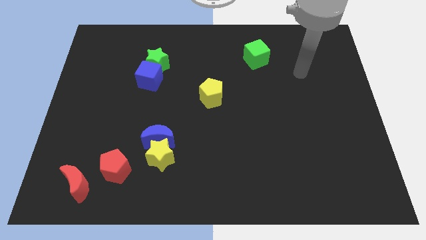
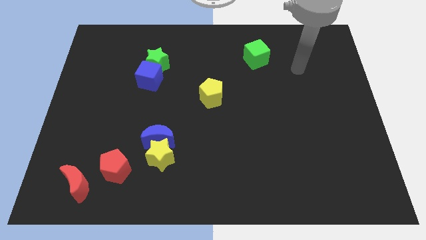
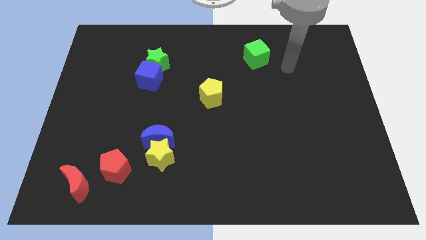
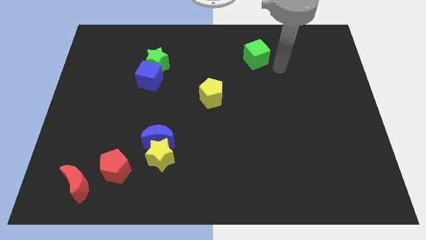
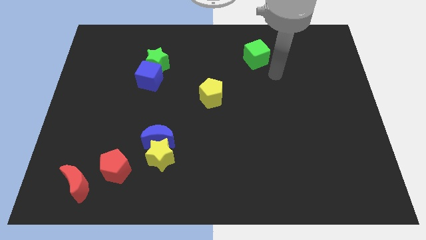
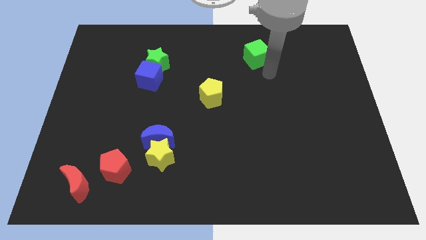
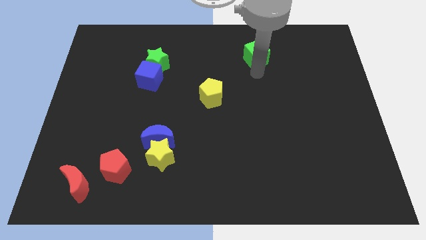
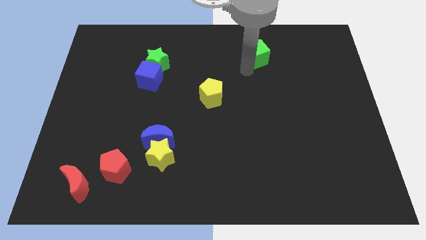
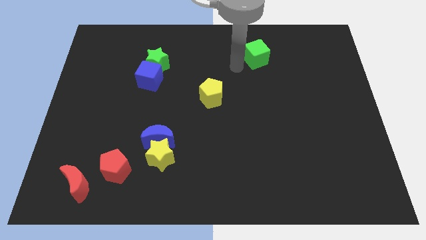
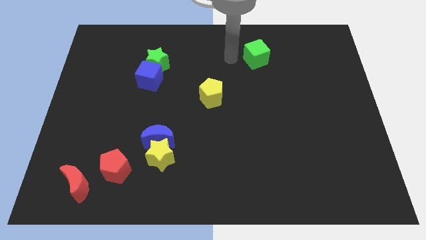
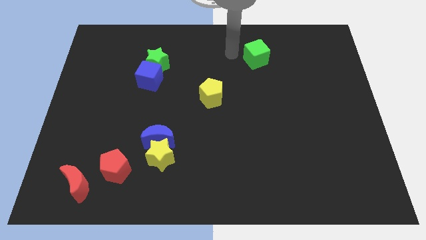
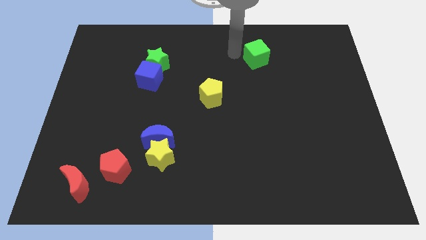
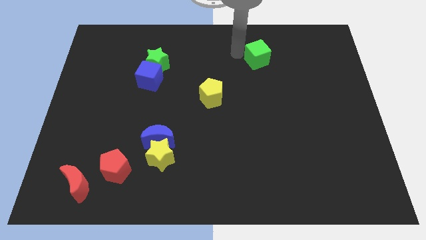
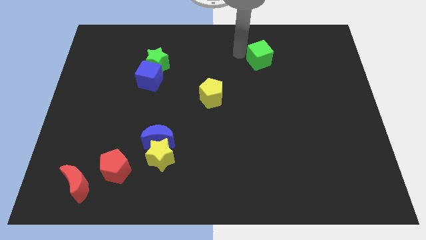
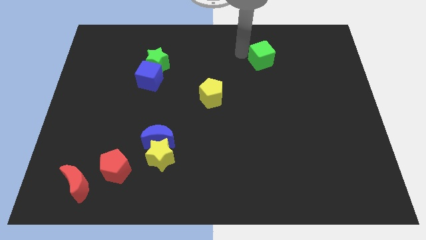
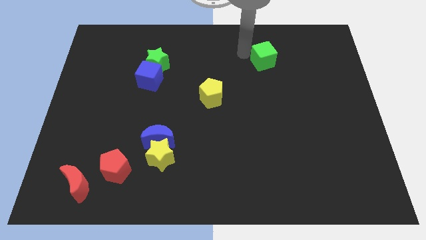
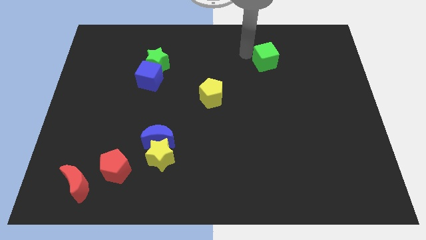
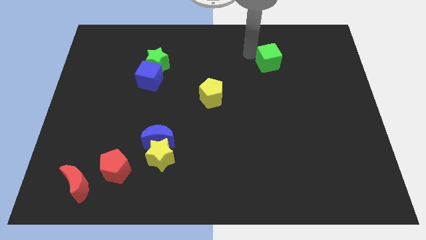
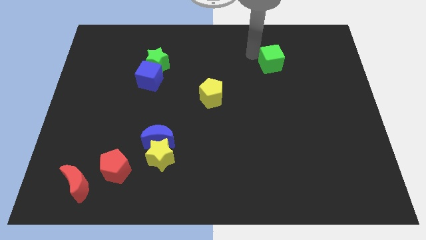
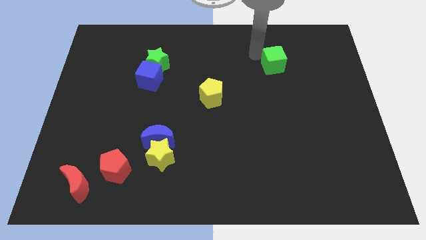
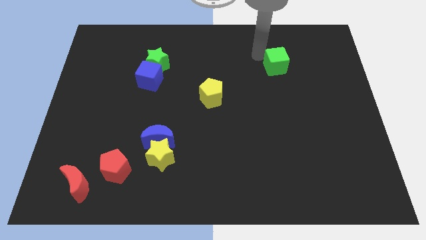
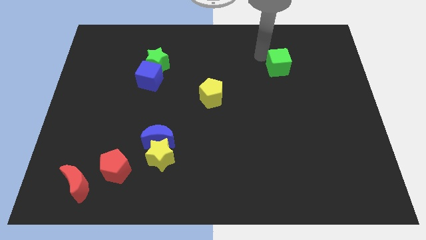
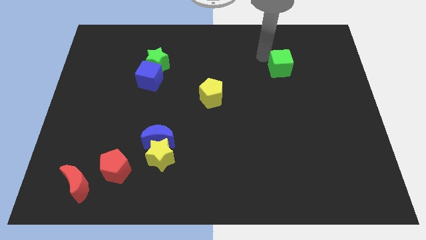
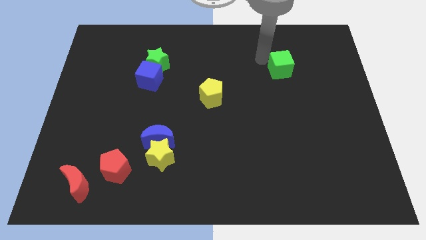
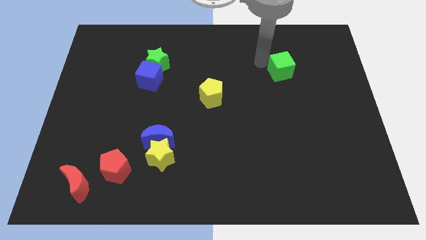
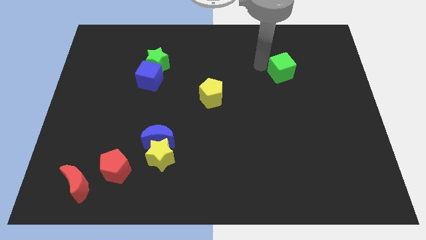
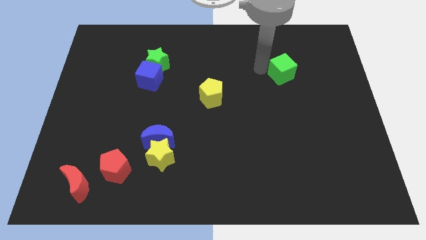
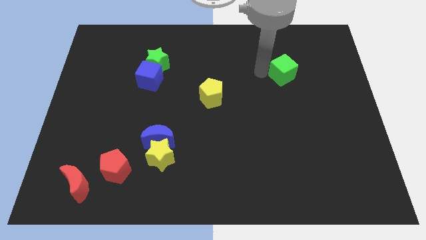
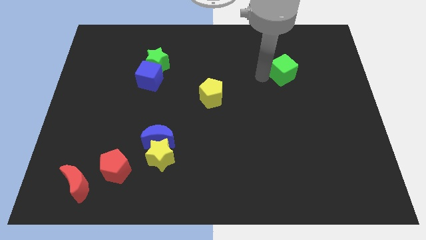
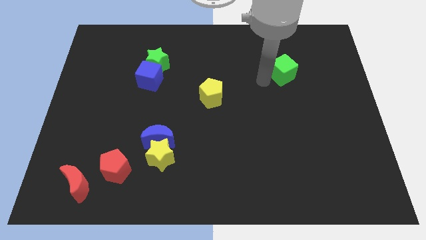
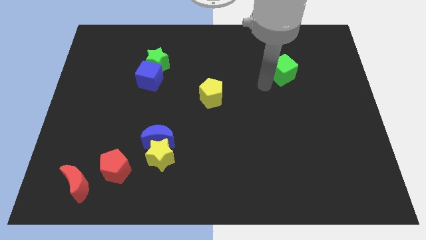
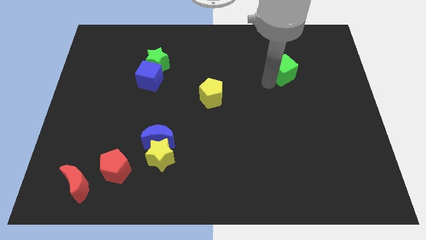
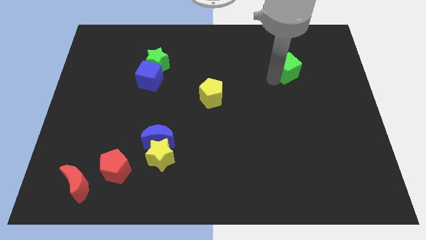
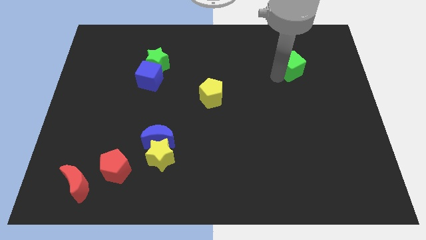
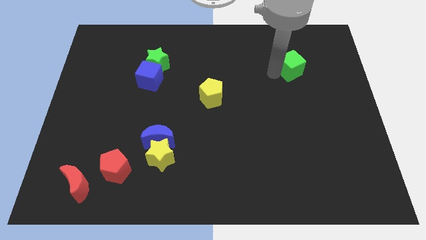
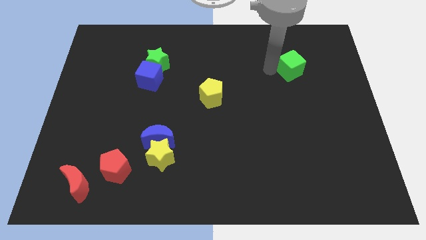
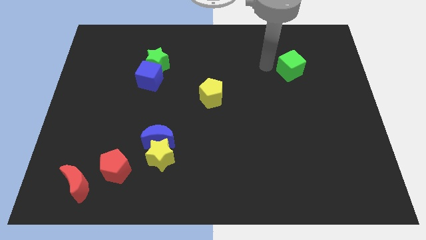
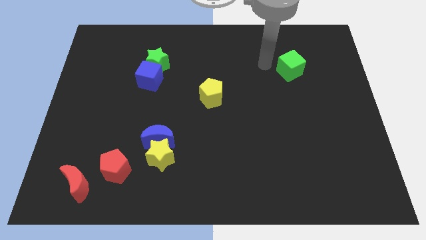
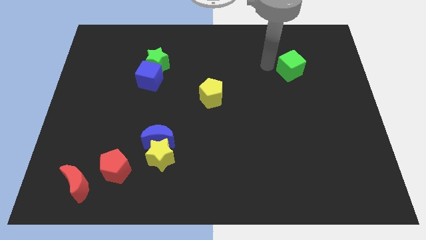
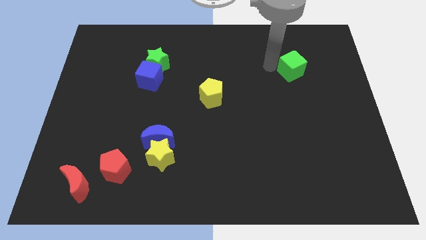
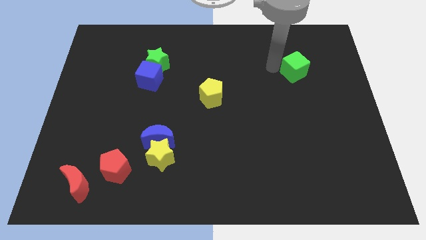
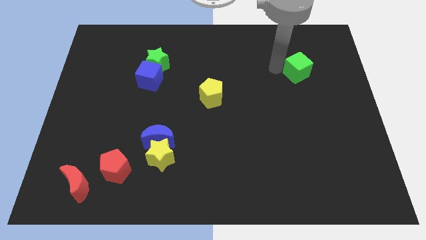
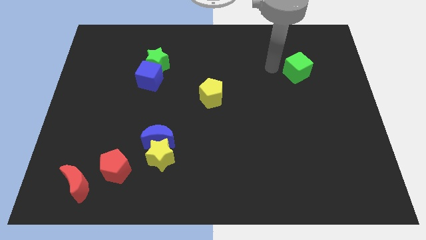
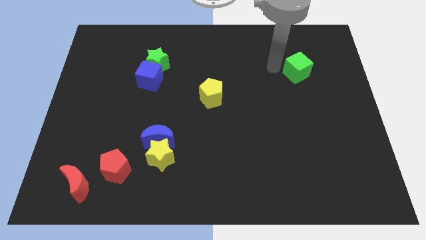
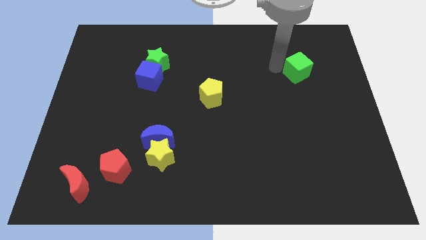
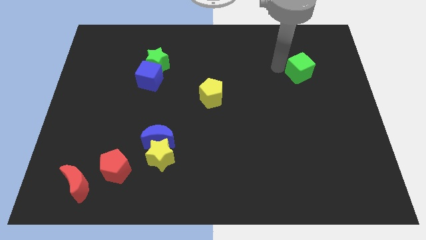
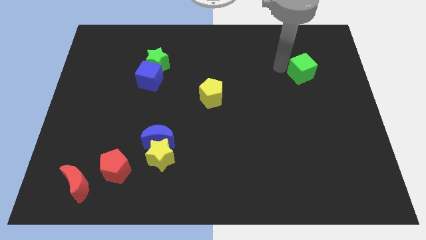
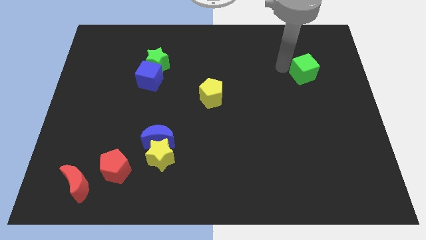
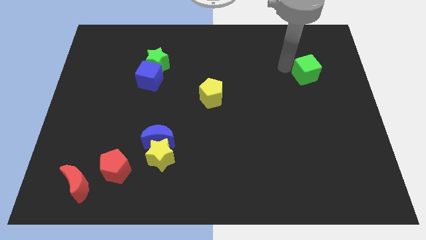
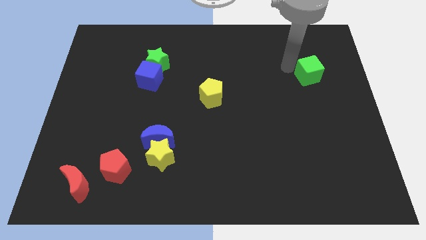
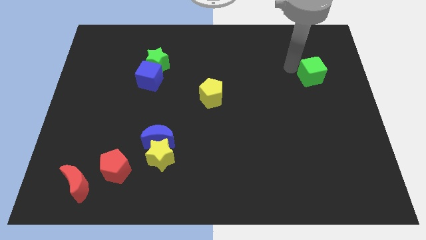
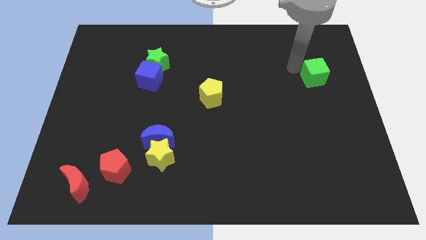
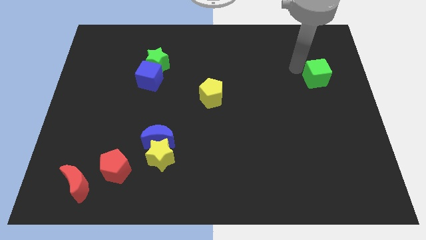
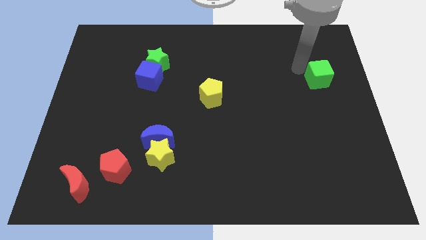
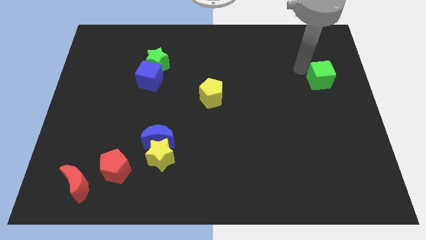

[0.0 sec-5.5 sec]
slide the green cube to the right side of the board

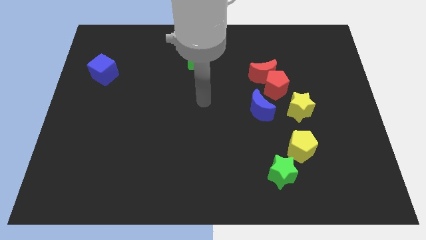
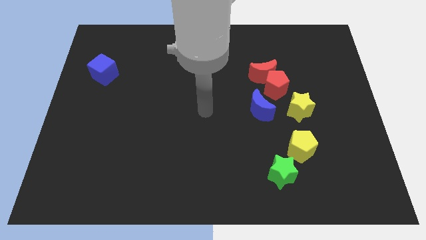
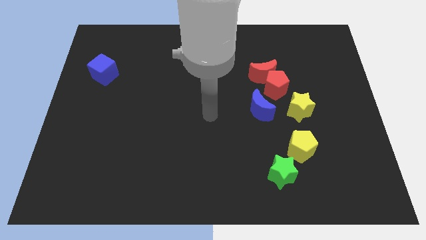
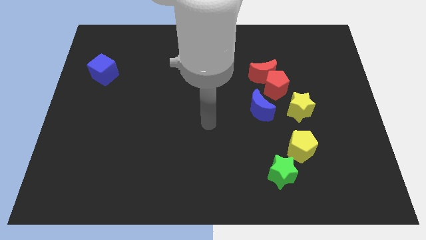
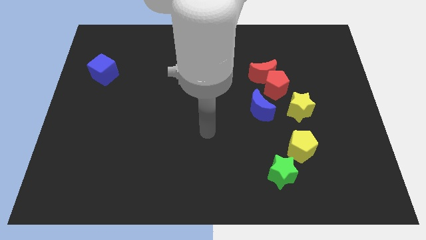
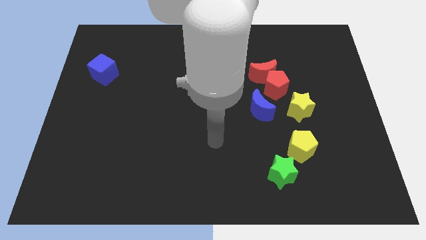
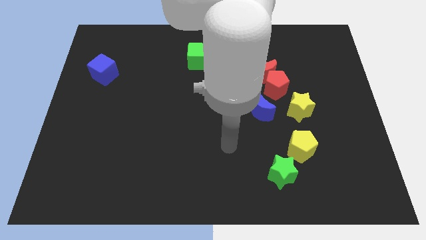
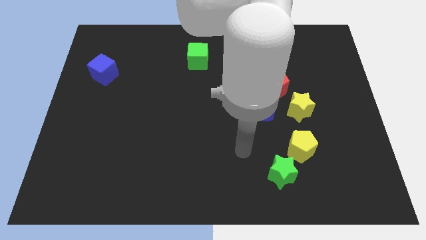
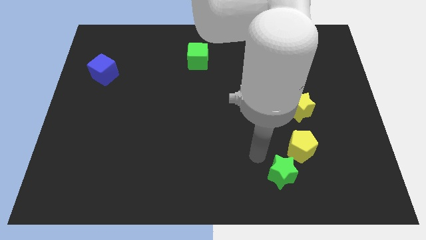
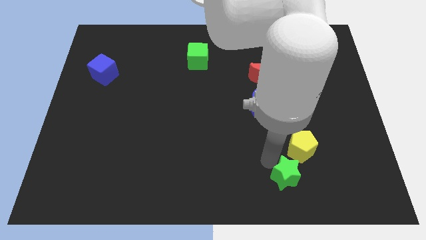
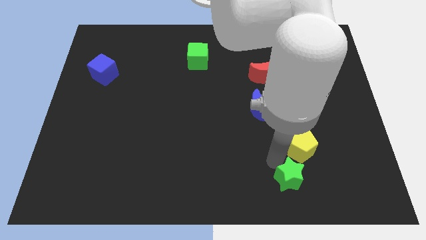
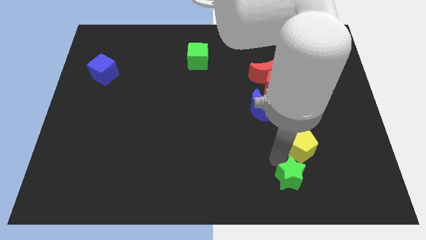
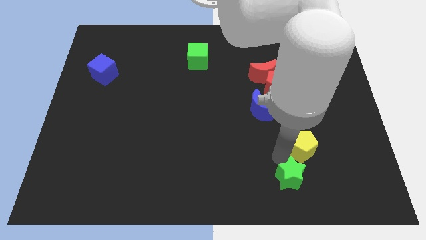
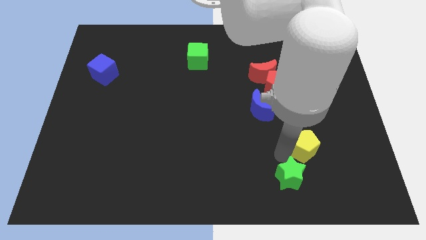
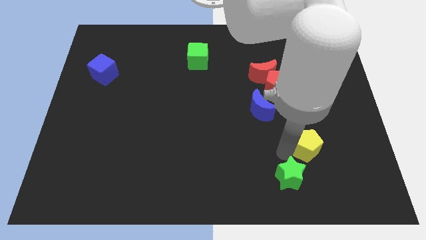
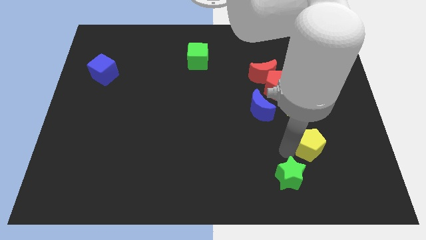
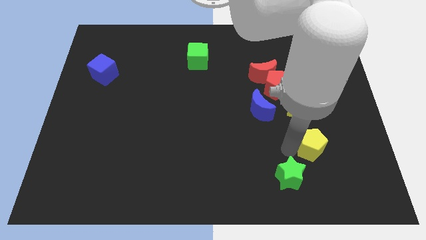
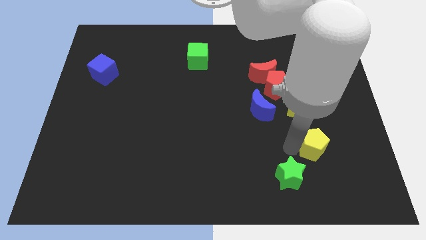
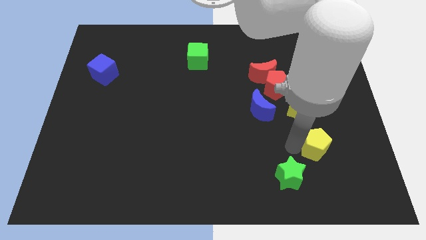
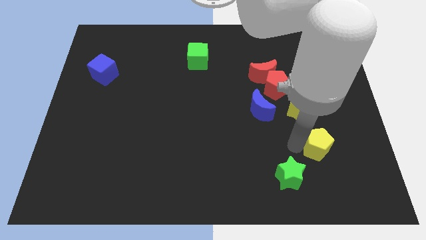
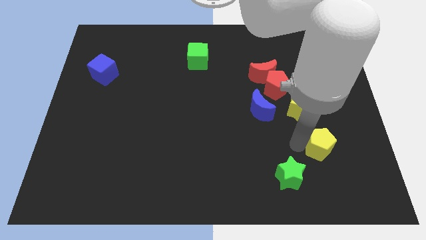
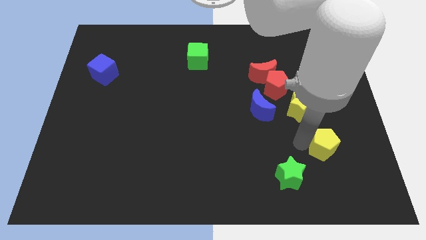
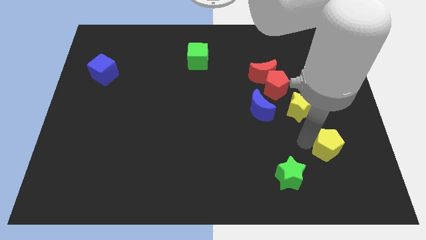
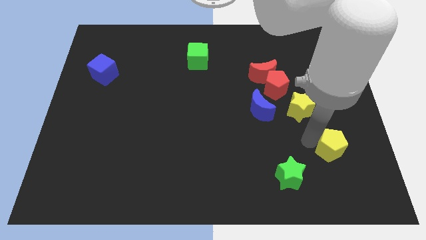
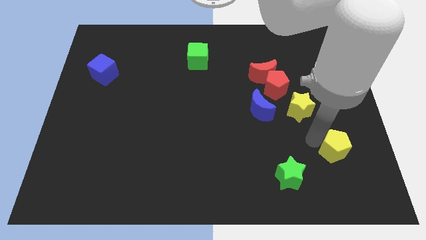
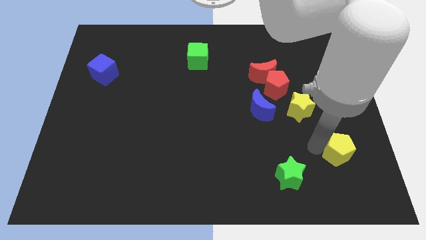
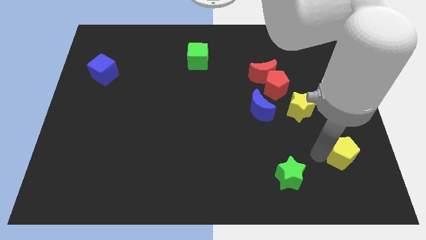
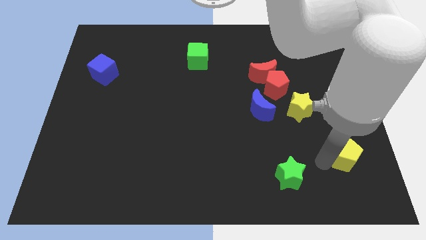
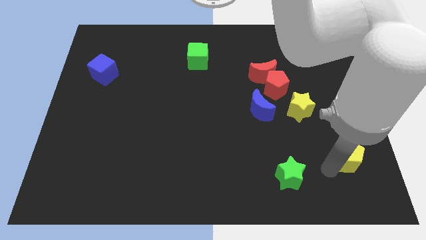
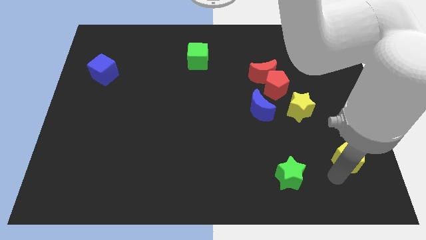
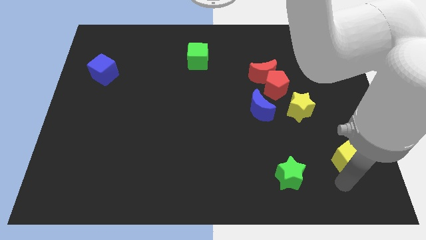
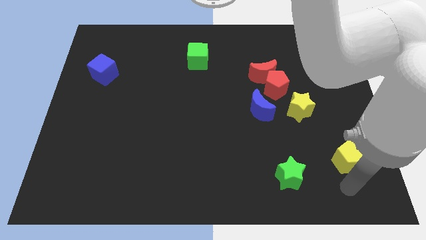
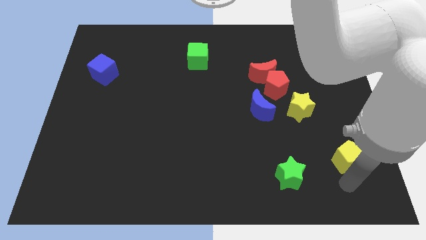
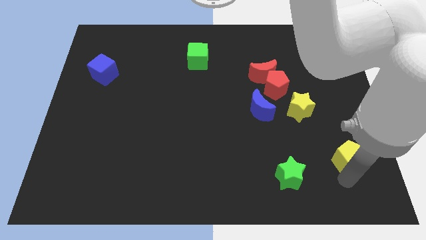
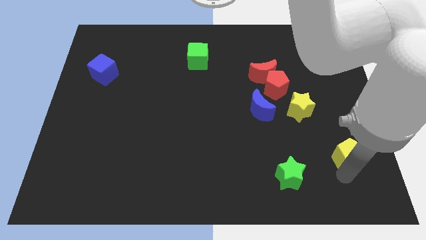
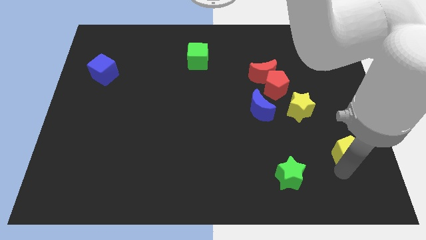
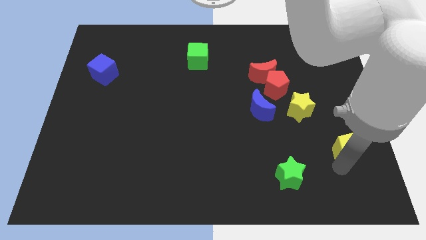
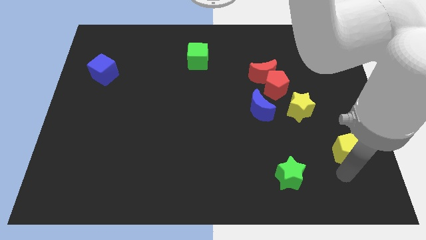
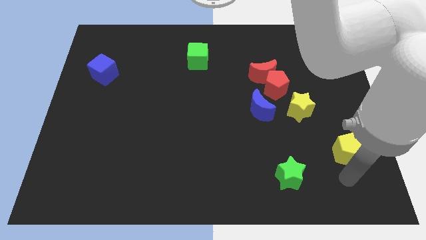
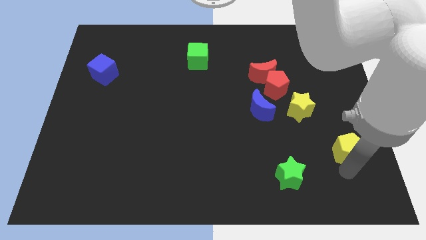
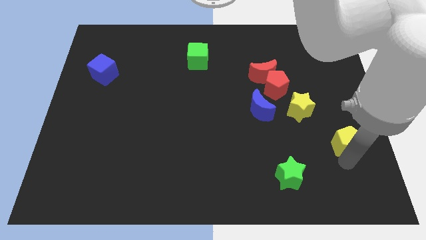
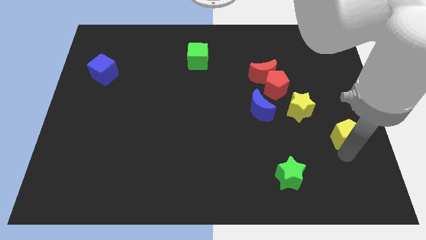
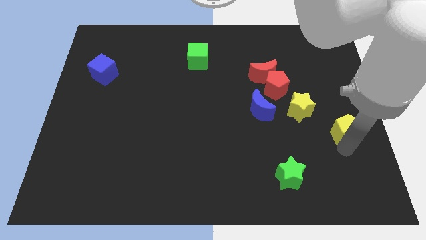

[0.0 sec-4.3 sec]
move the yellow pentagon to the center right
